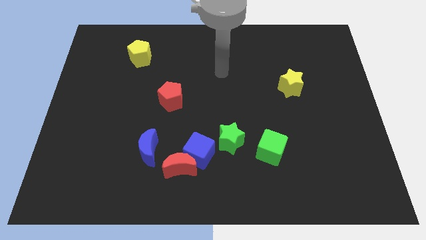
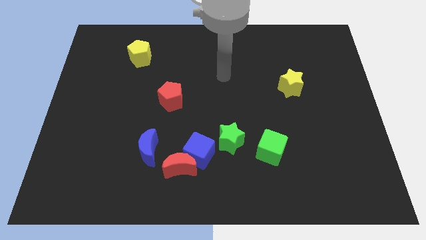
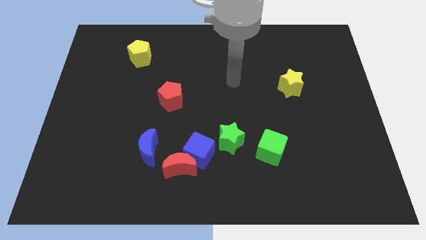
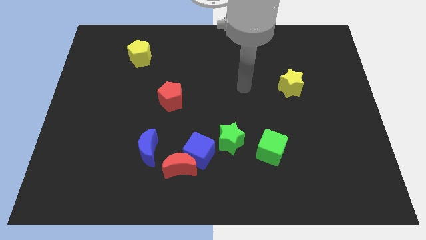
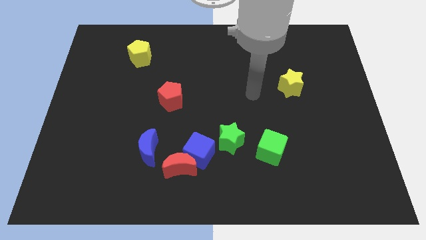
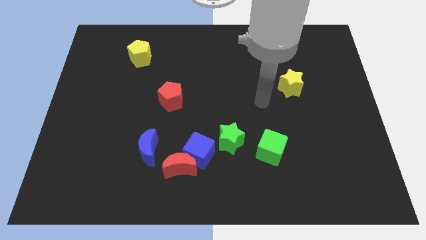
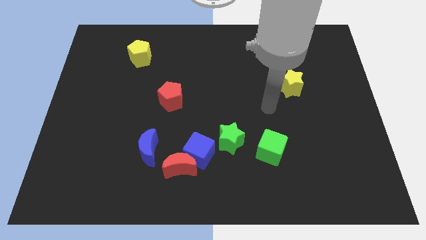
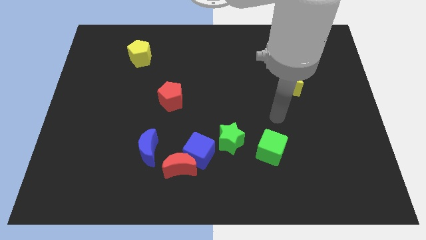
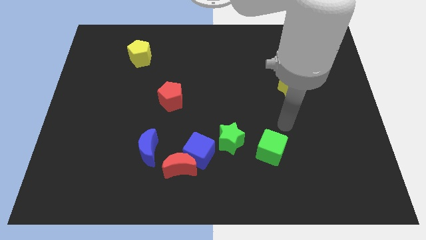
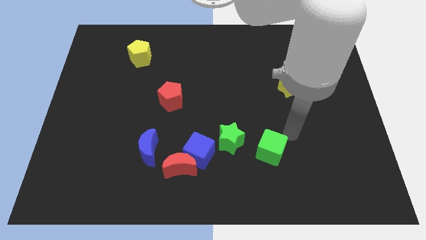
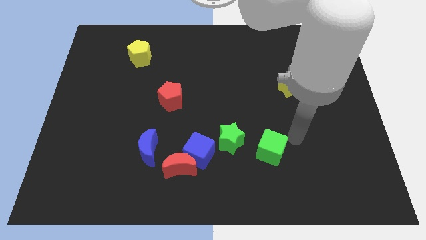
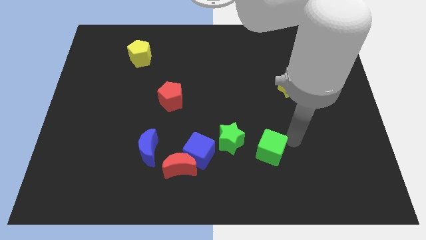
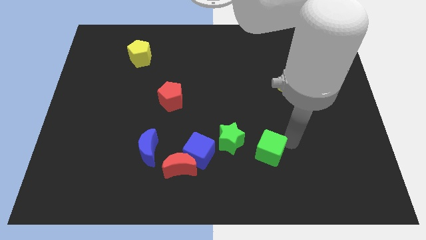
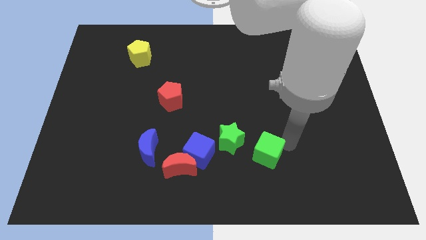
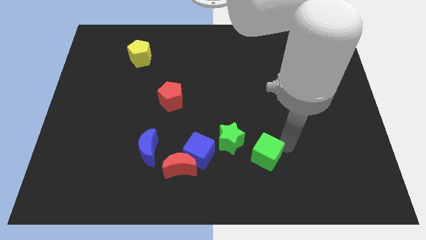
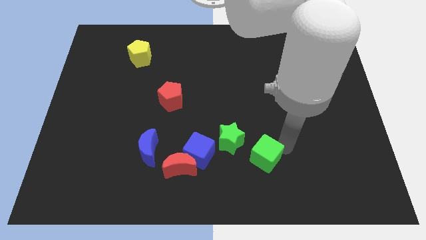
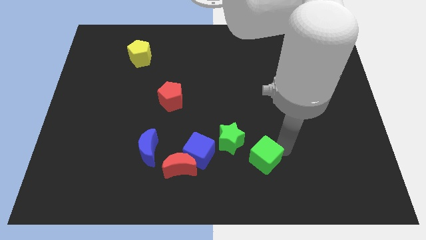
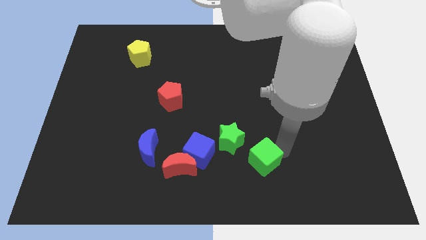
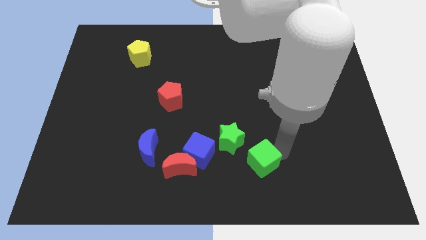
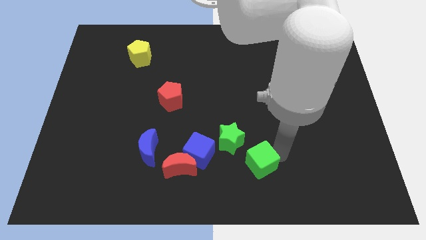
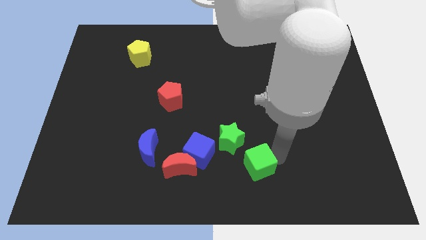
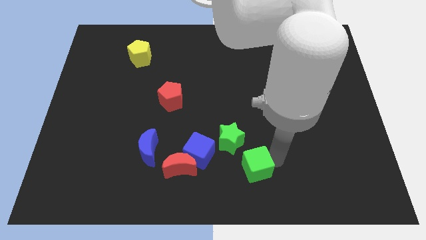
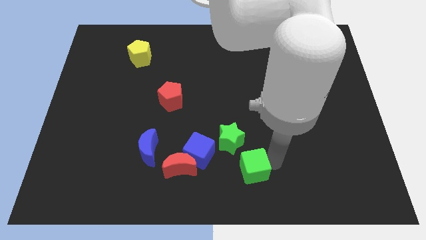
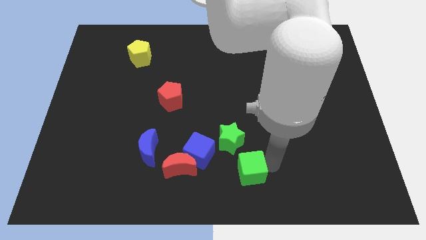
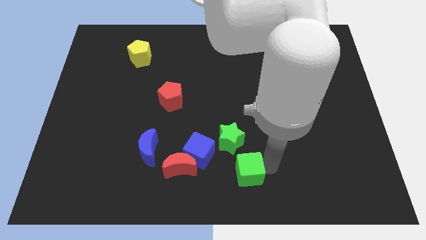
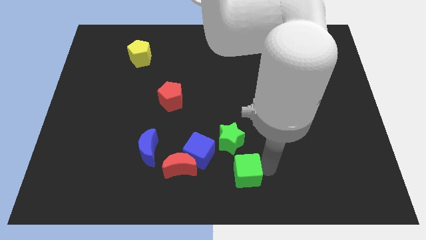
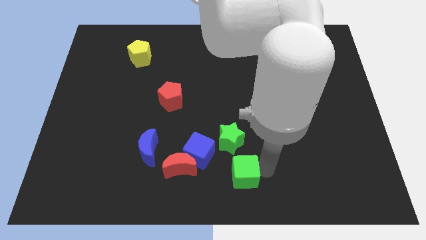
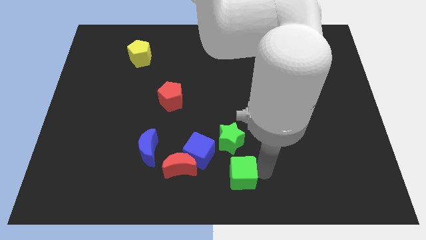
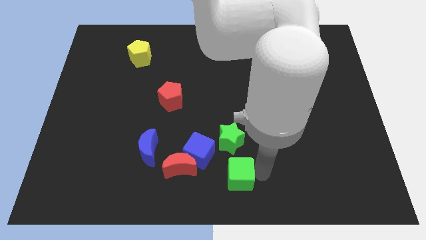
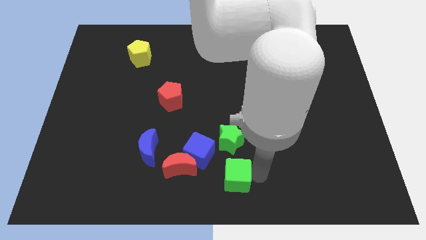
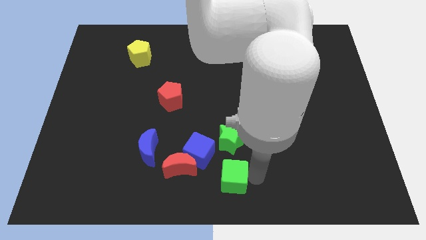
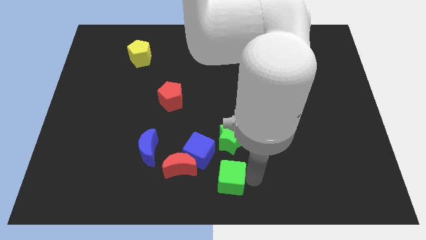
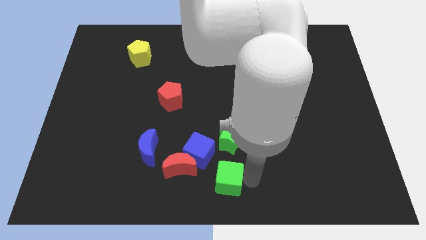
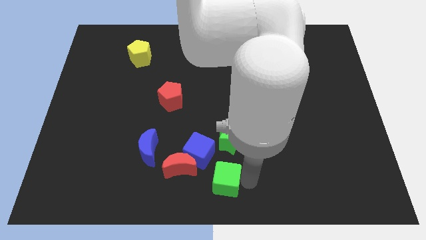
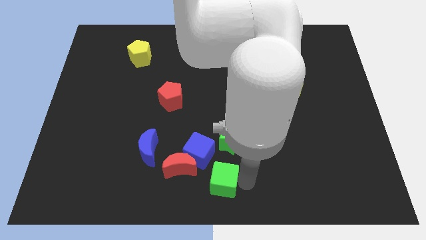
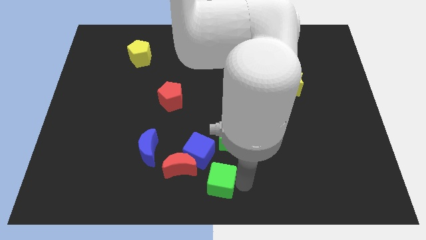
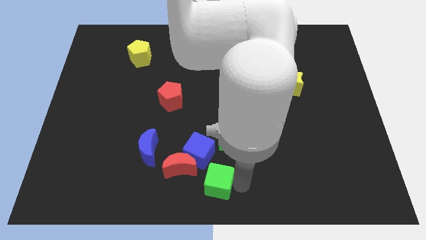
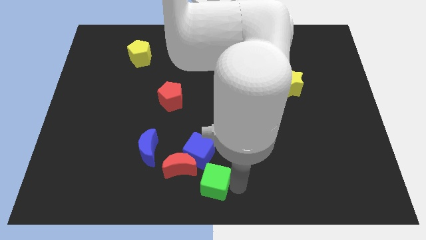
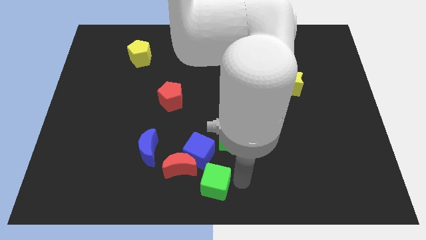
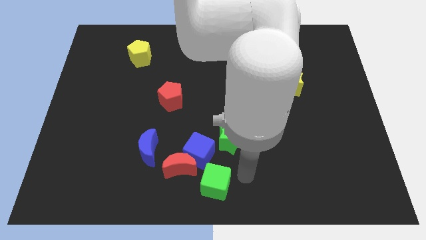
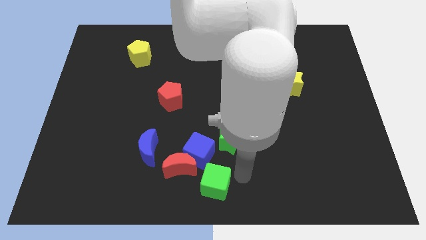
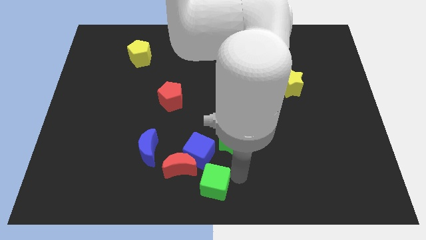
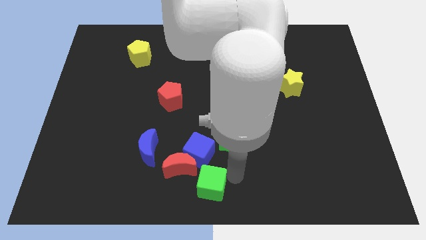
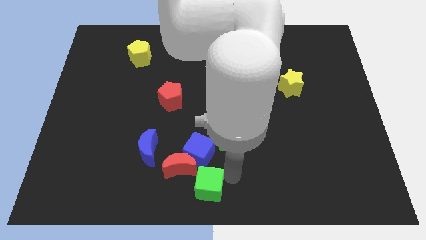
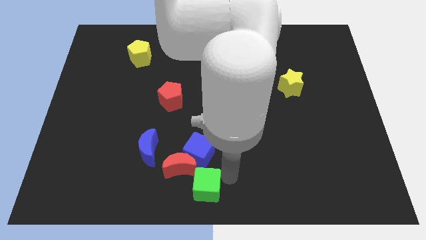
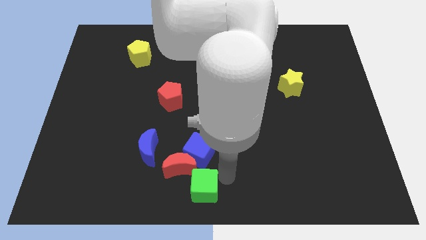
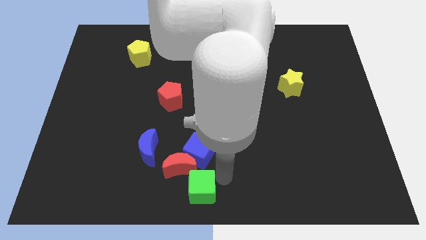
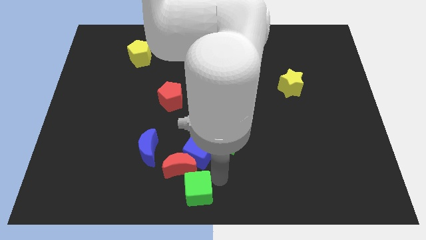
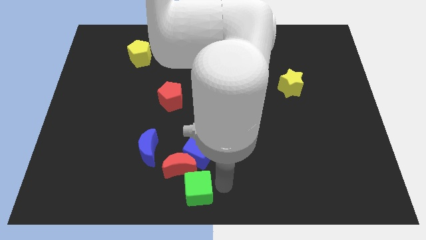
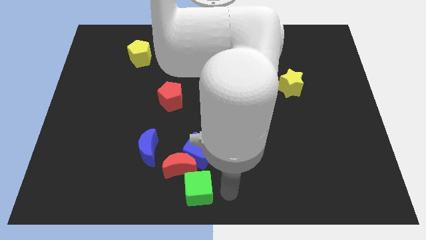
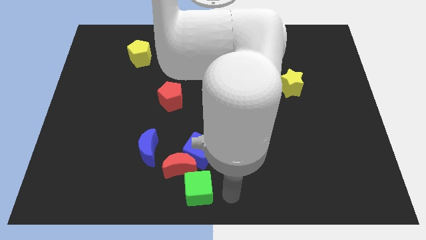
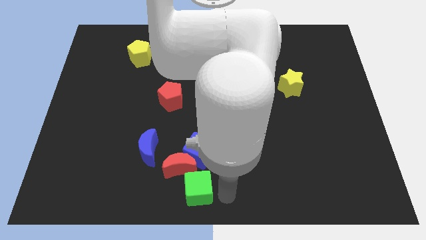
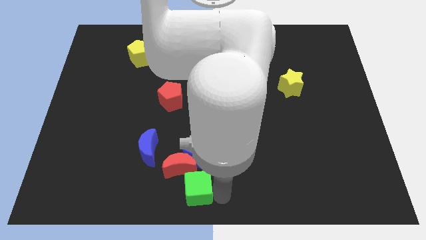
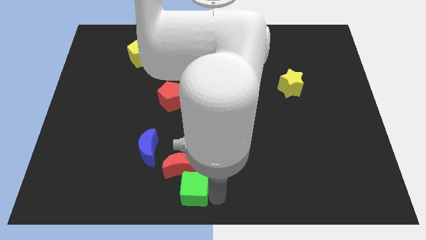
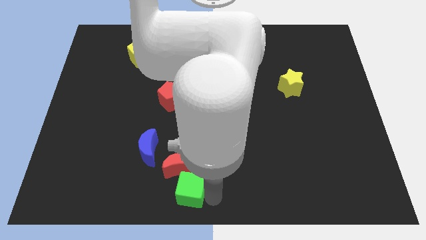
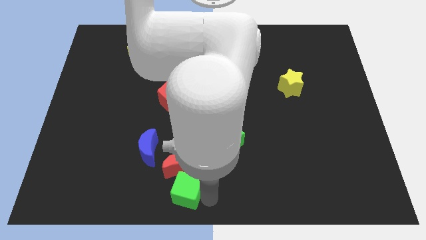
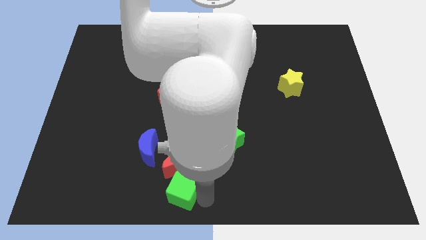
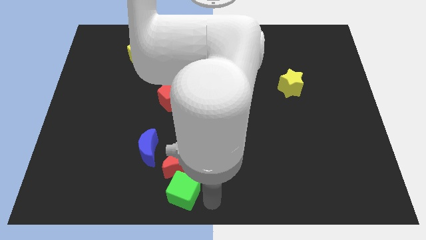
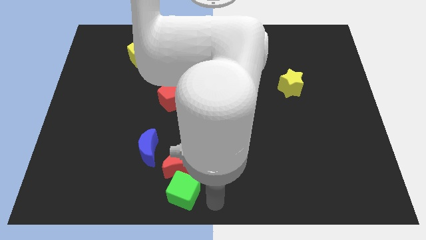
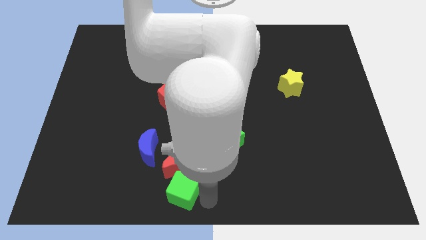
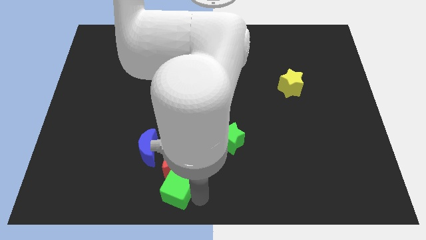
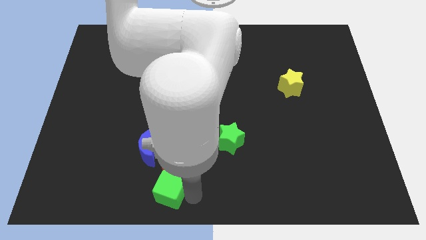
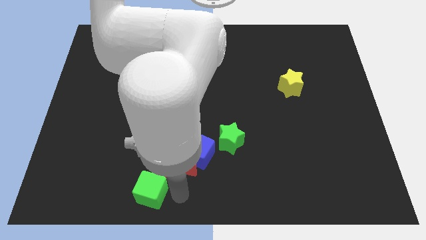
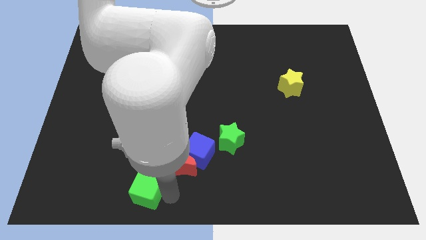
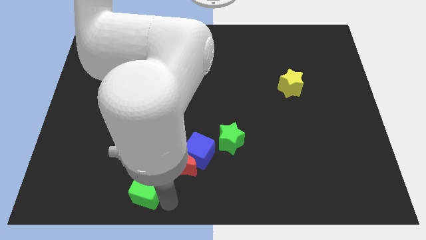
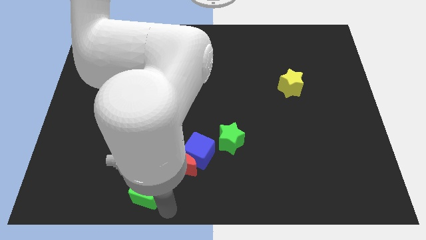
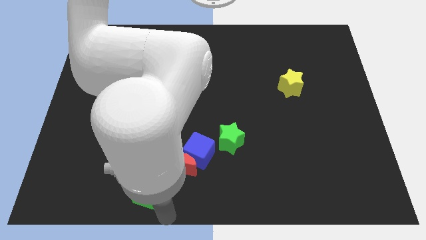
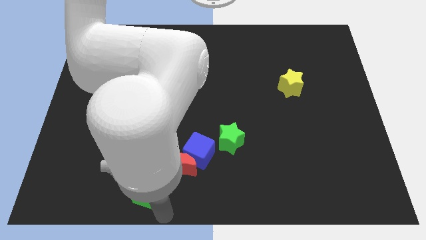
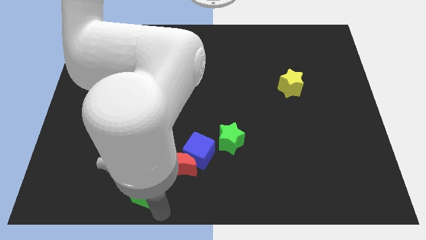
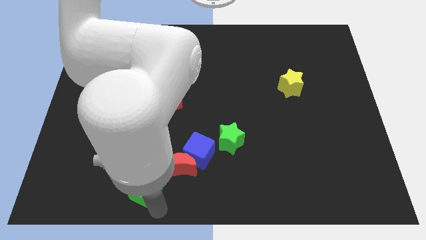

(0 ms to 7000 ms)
push the green cube to the left side of the red moon

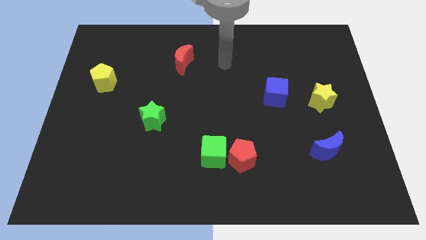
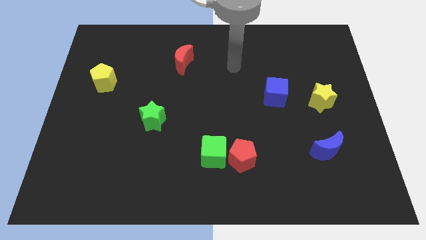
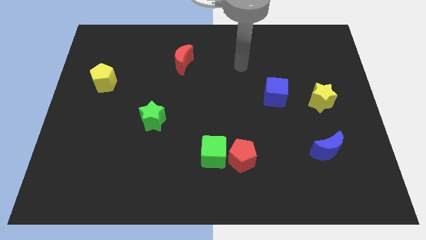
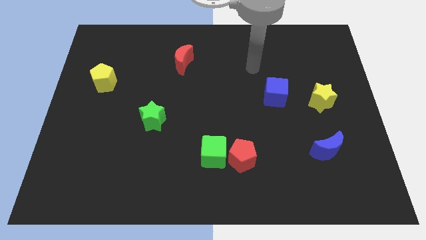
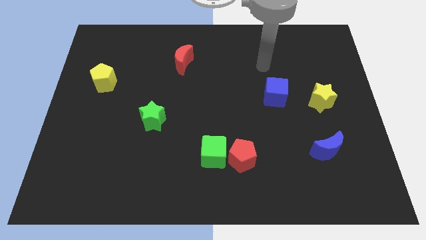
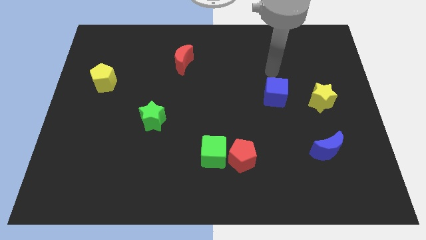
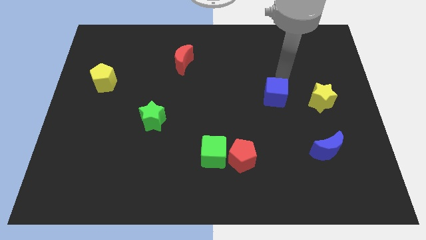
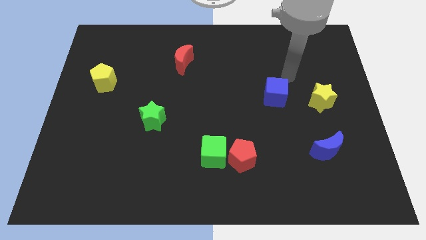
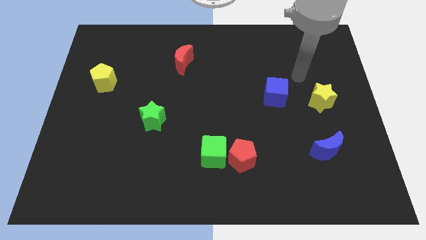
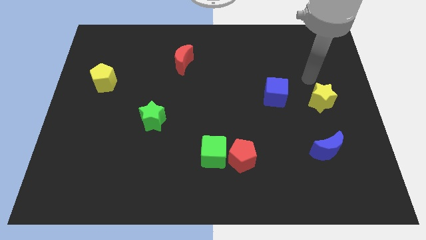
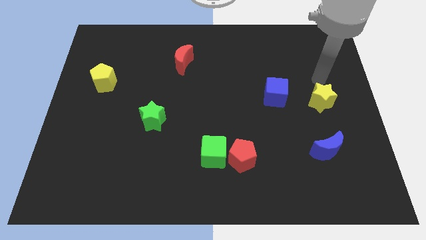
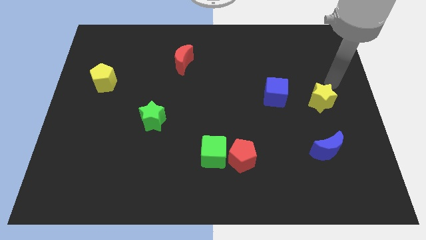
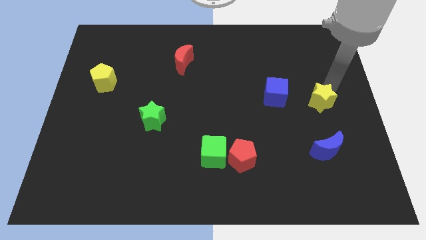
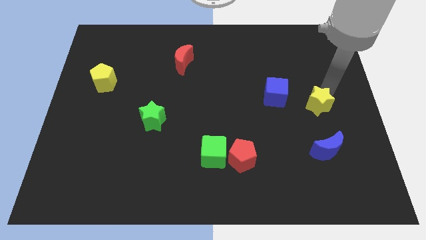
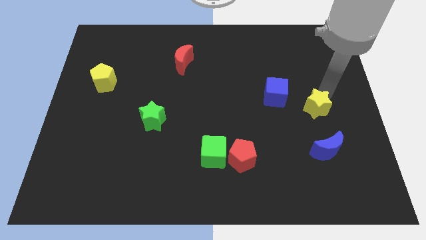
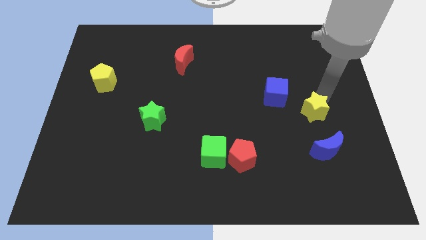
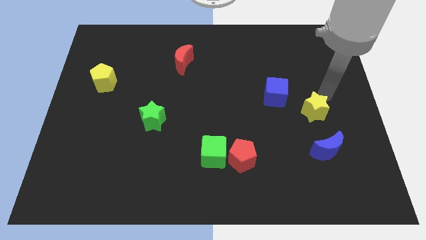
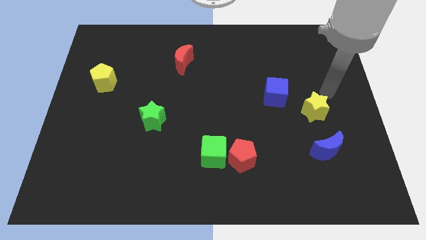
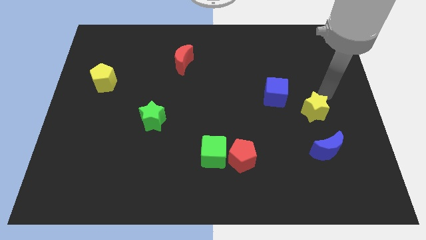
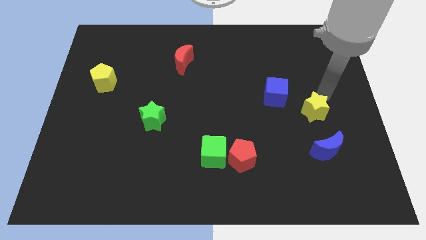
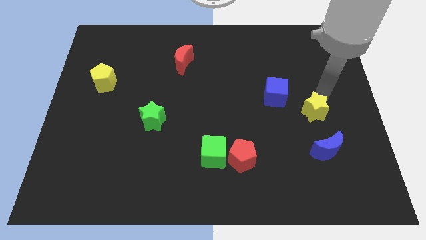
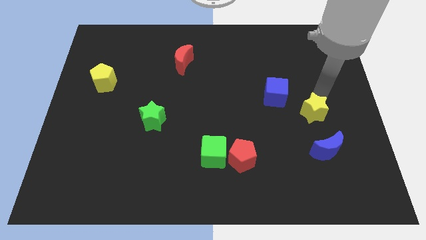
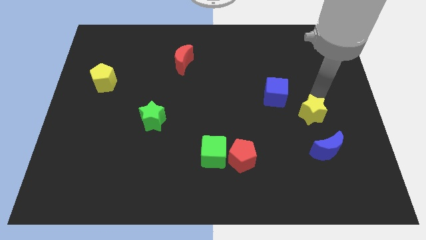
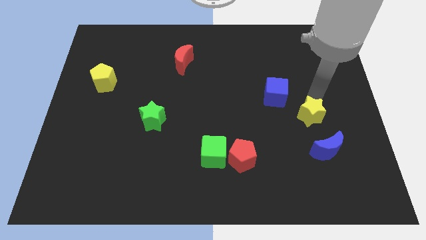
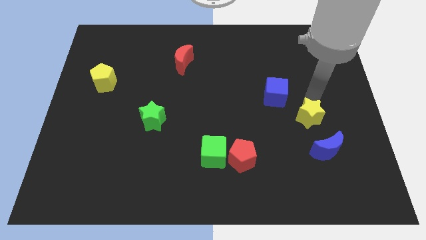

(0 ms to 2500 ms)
push the yellow star to the top left side of the blue moon
